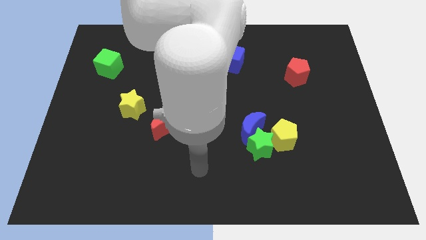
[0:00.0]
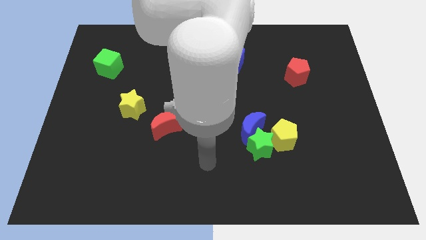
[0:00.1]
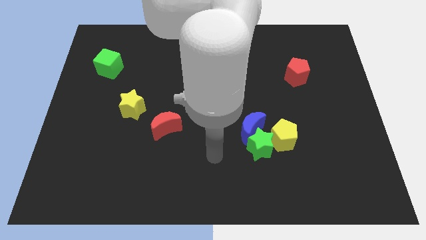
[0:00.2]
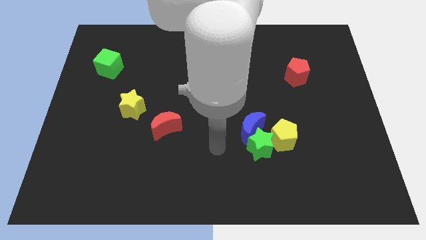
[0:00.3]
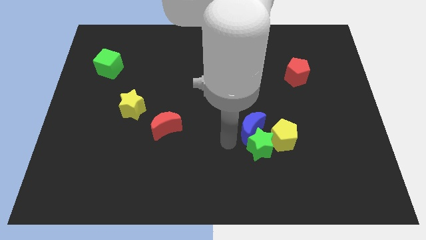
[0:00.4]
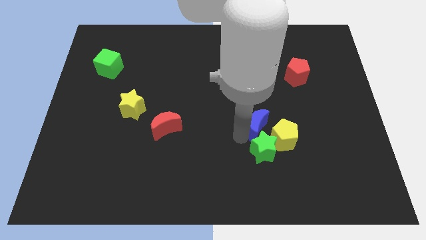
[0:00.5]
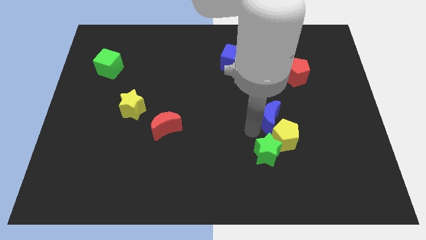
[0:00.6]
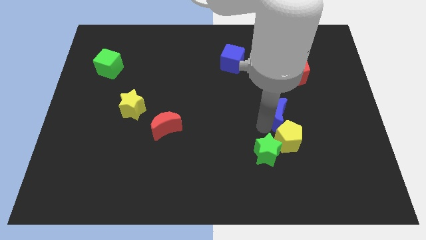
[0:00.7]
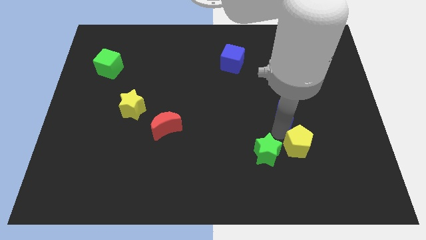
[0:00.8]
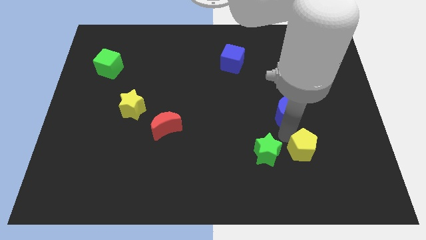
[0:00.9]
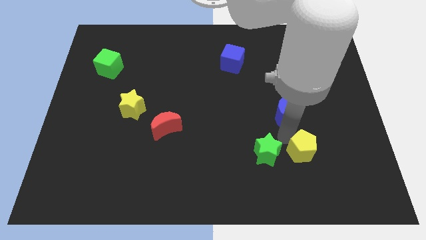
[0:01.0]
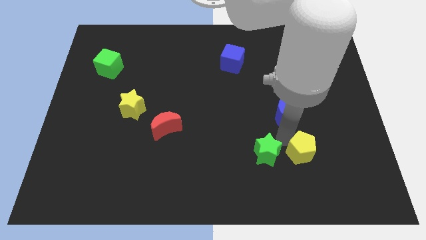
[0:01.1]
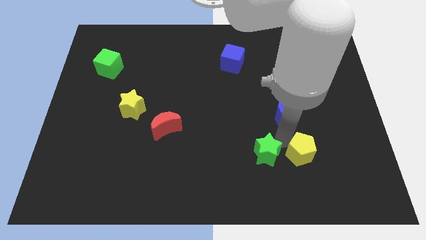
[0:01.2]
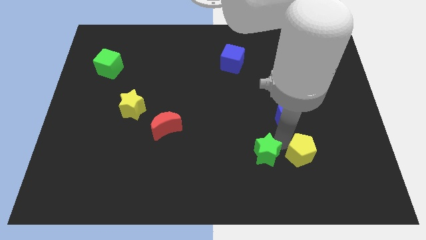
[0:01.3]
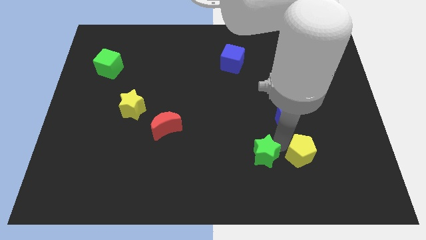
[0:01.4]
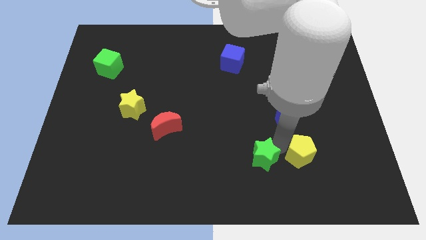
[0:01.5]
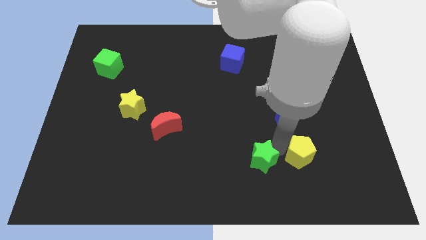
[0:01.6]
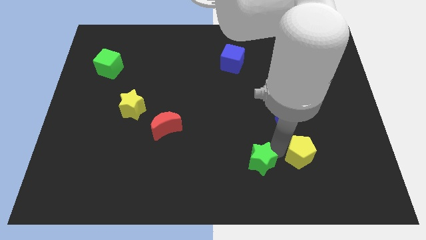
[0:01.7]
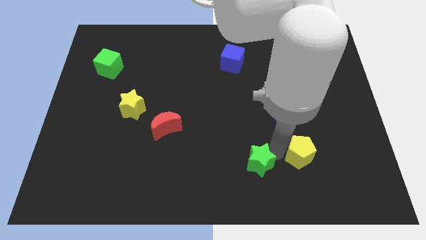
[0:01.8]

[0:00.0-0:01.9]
move the green star away from the blue moon and yellow pentagon

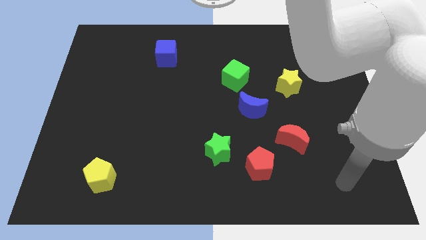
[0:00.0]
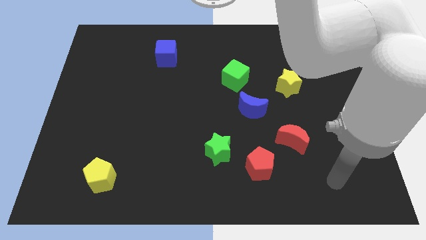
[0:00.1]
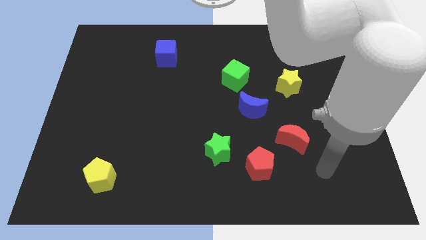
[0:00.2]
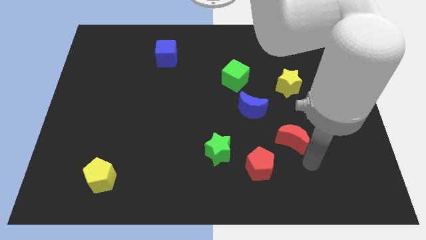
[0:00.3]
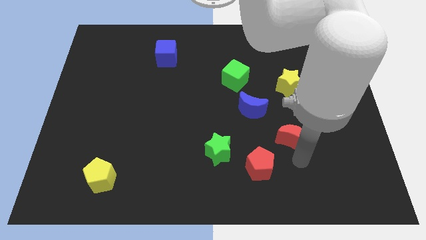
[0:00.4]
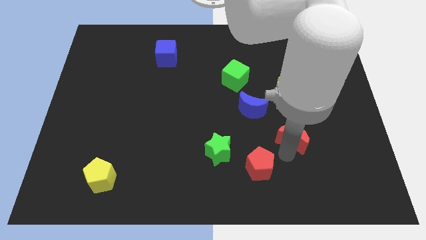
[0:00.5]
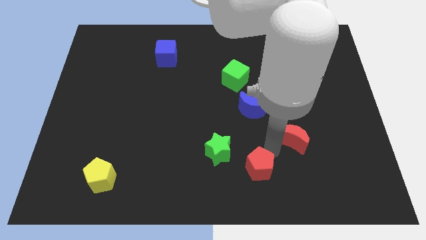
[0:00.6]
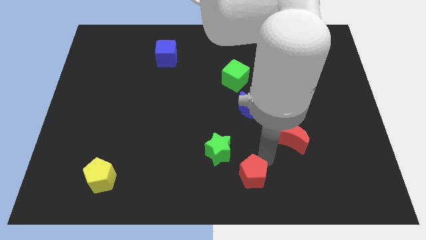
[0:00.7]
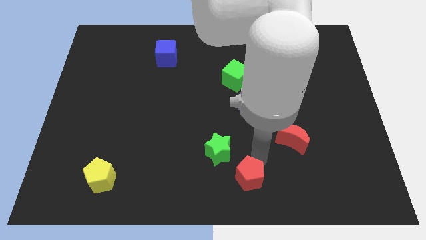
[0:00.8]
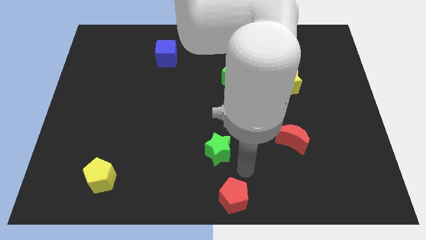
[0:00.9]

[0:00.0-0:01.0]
separate the green star from the red pentagon

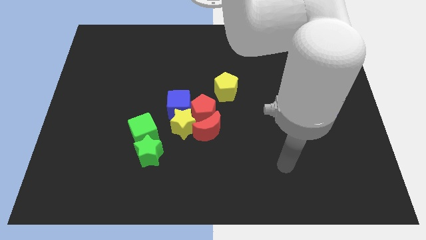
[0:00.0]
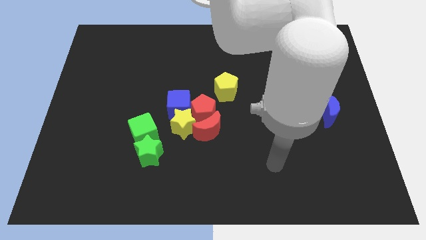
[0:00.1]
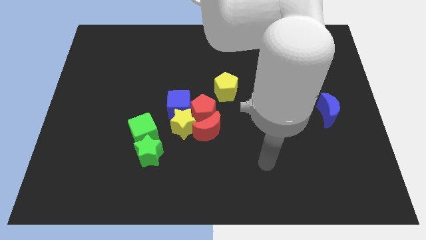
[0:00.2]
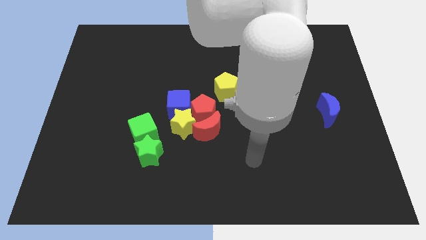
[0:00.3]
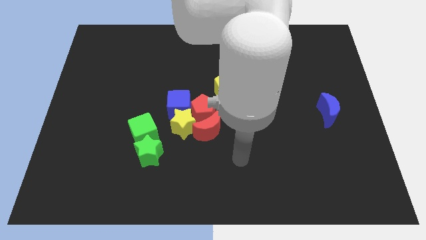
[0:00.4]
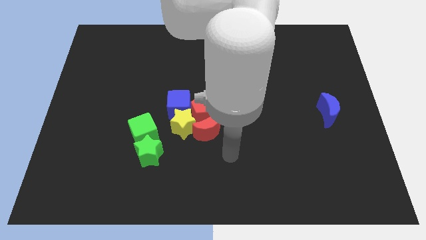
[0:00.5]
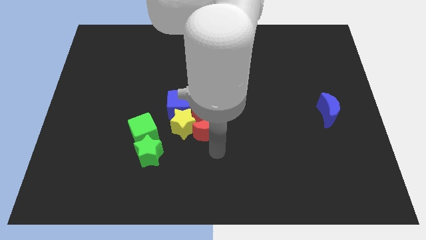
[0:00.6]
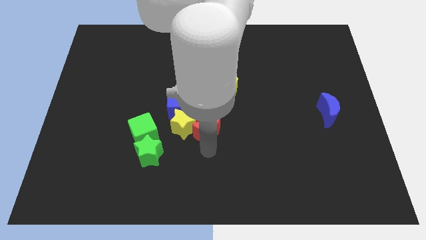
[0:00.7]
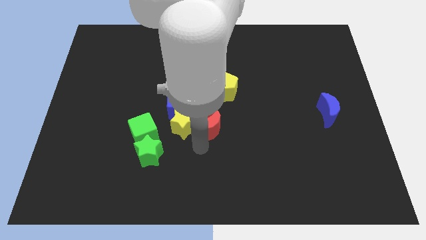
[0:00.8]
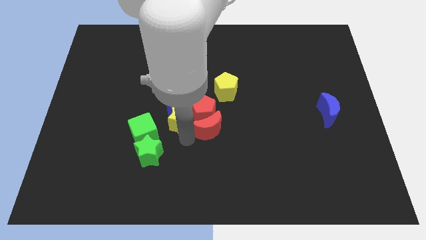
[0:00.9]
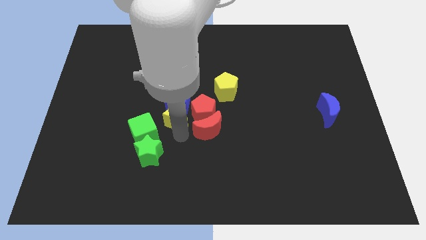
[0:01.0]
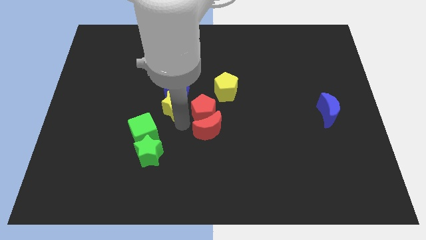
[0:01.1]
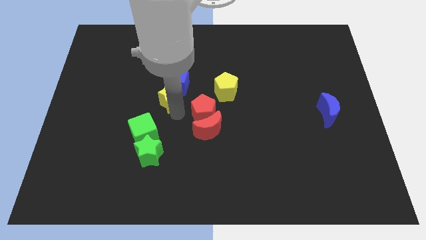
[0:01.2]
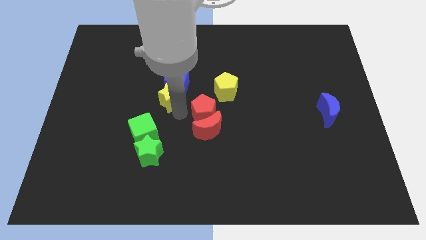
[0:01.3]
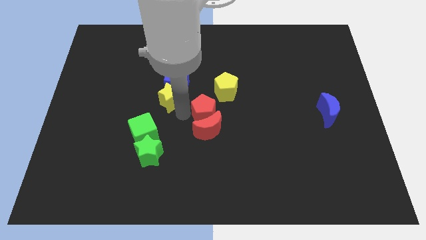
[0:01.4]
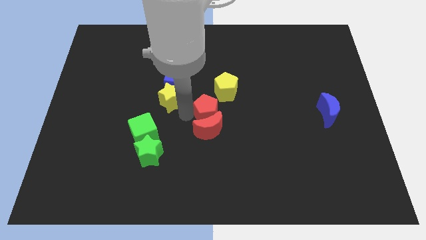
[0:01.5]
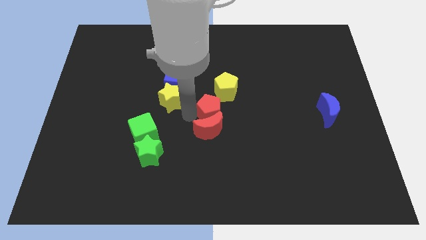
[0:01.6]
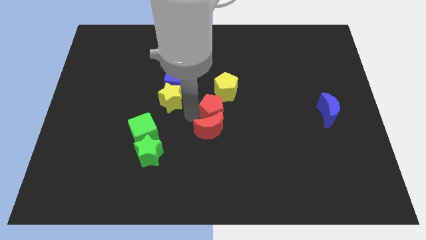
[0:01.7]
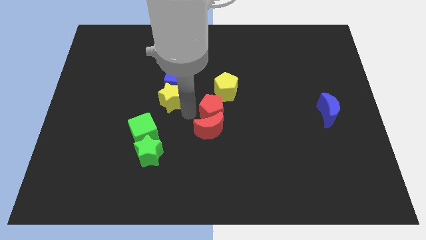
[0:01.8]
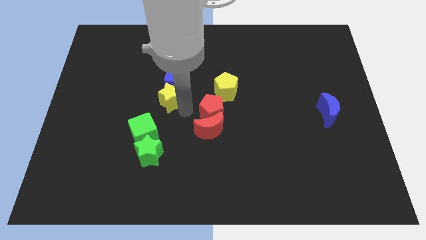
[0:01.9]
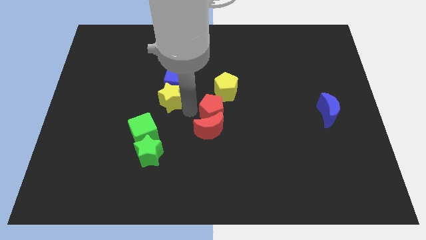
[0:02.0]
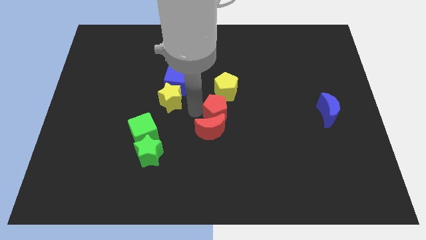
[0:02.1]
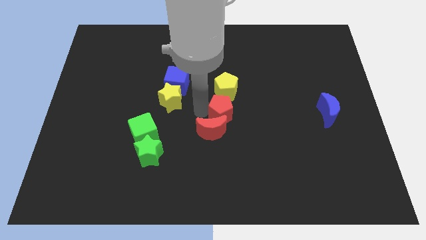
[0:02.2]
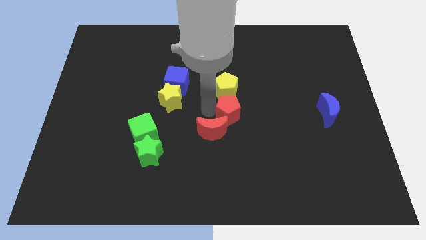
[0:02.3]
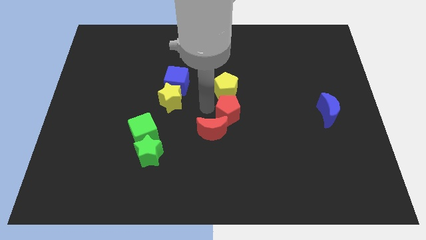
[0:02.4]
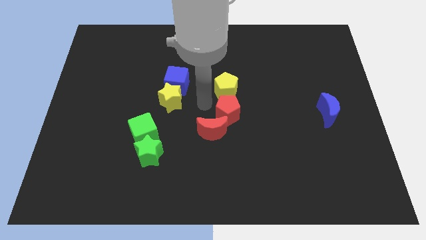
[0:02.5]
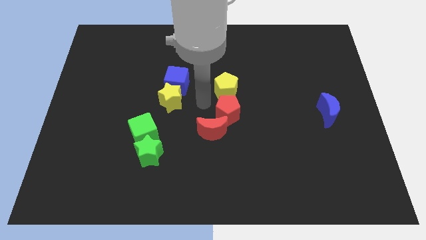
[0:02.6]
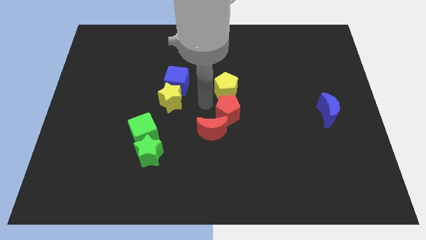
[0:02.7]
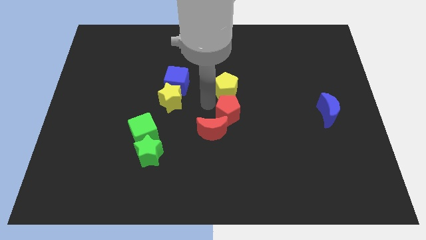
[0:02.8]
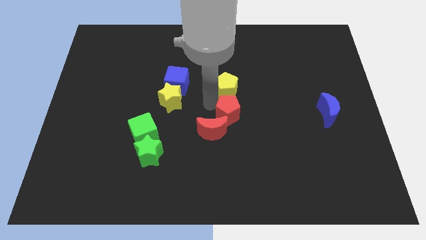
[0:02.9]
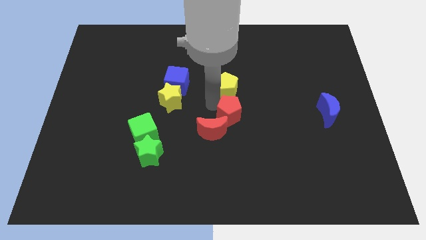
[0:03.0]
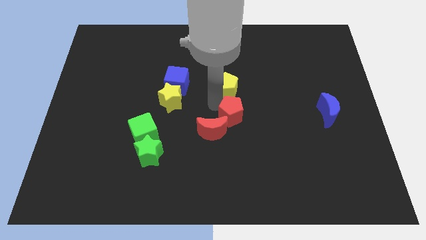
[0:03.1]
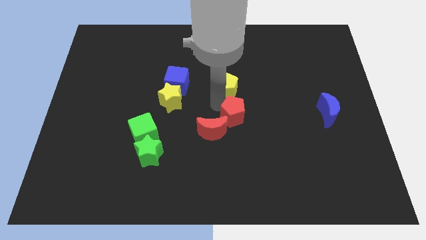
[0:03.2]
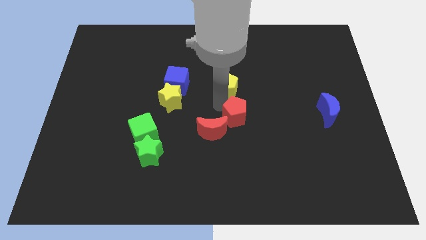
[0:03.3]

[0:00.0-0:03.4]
separate the red pentagon from the group of blocks

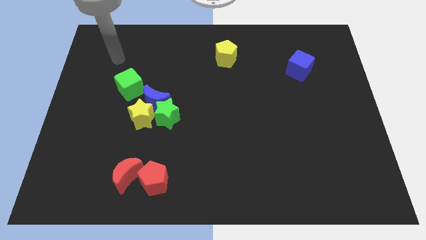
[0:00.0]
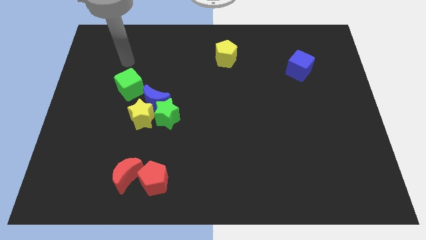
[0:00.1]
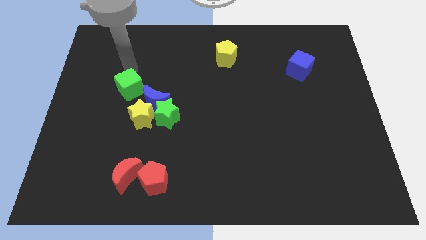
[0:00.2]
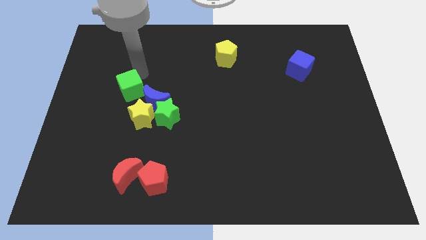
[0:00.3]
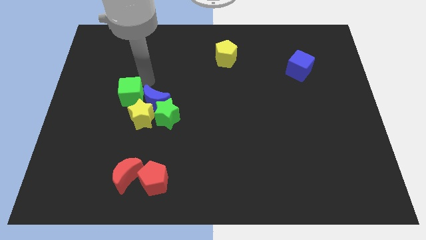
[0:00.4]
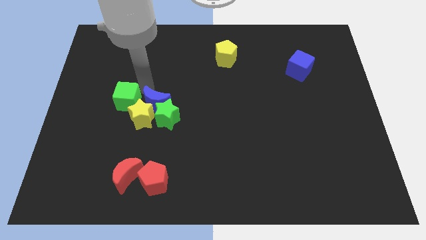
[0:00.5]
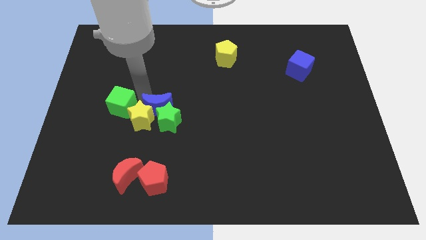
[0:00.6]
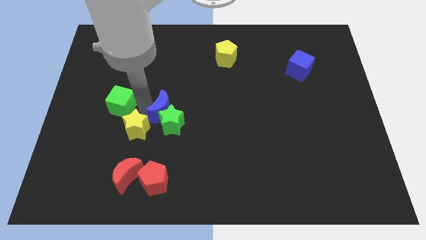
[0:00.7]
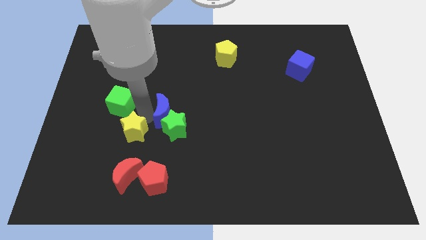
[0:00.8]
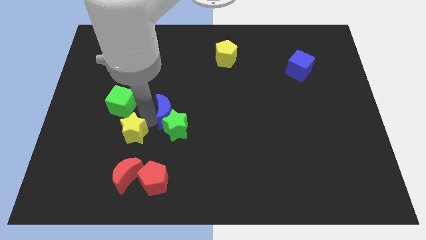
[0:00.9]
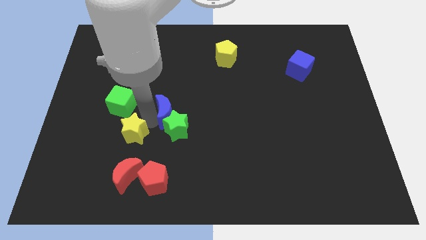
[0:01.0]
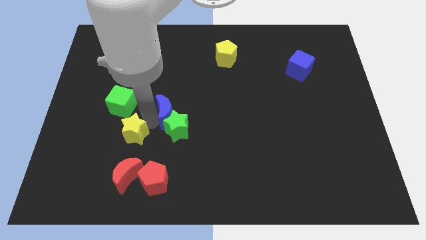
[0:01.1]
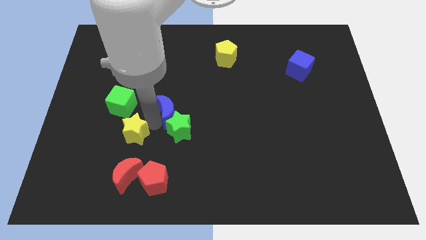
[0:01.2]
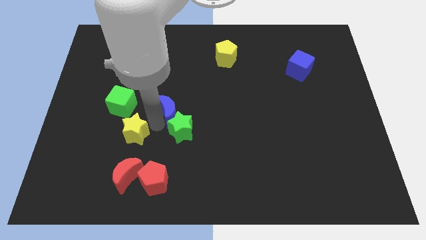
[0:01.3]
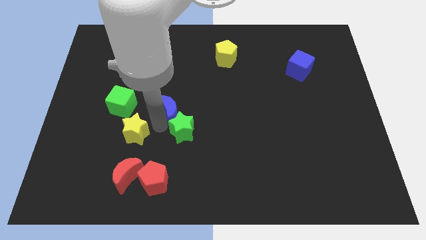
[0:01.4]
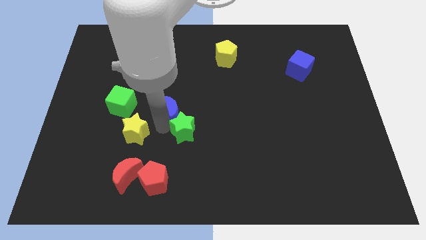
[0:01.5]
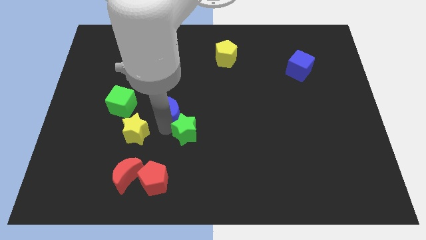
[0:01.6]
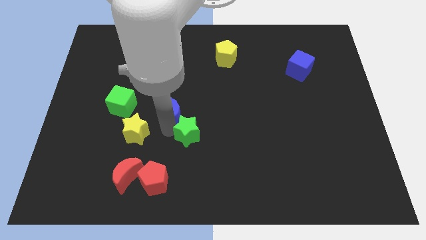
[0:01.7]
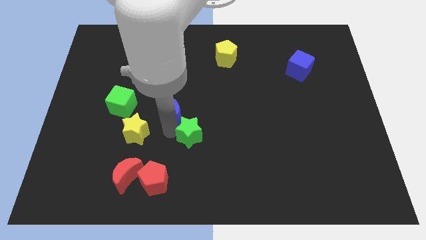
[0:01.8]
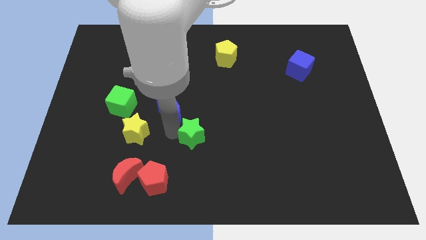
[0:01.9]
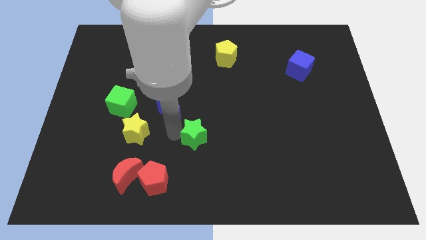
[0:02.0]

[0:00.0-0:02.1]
pull the green star apart from the blue moon and yellow star

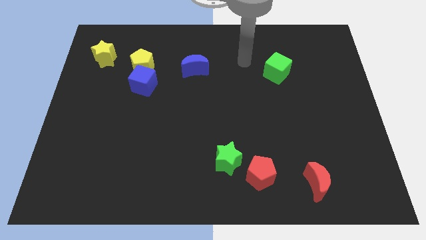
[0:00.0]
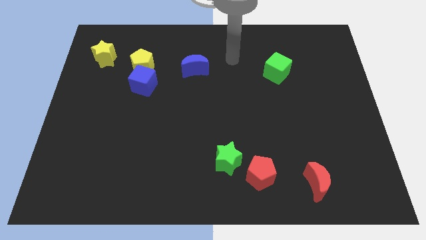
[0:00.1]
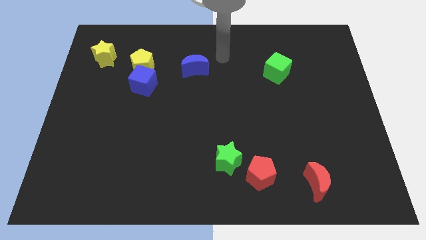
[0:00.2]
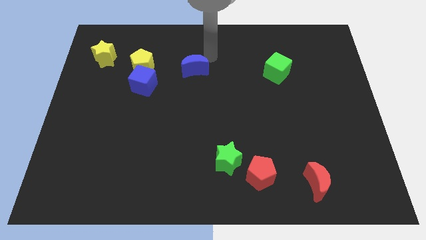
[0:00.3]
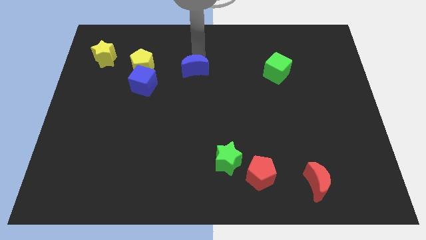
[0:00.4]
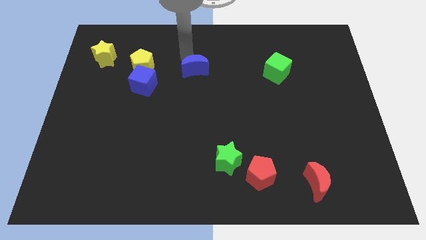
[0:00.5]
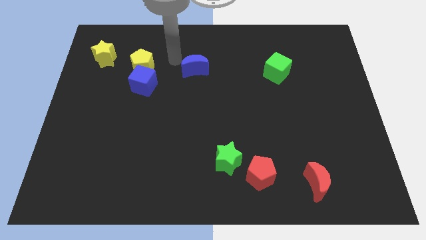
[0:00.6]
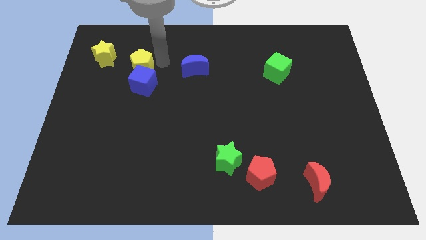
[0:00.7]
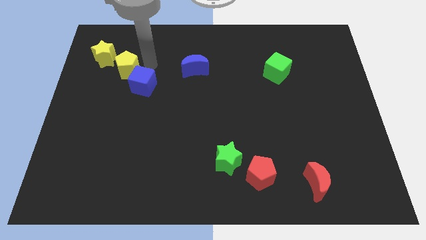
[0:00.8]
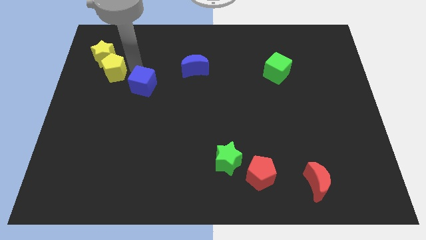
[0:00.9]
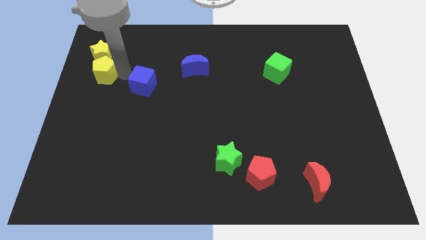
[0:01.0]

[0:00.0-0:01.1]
separate the blue cube from the yellow pentagon

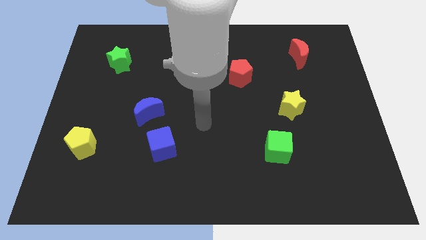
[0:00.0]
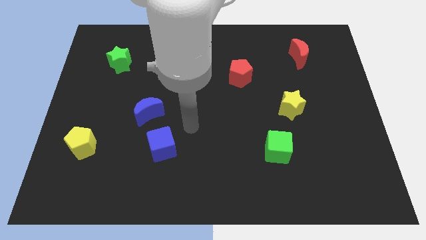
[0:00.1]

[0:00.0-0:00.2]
separate the blue moon from the blue cube
